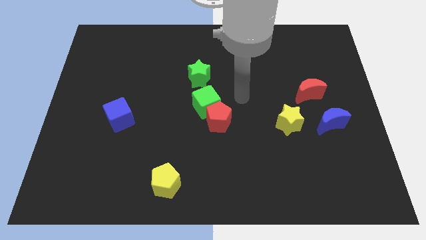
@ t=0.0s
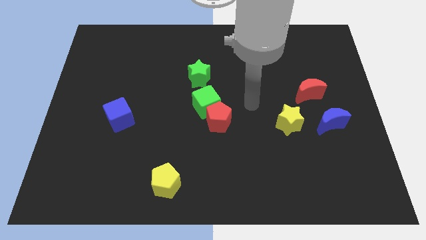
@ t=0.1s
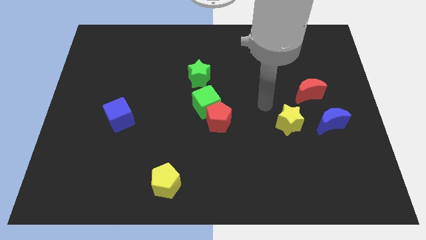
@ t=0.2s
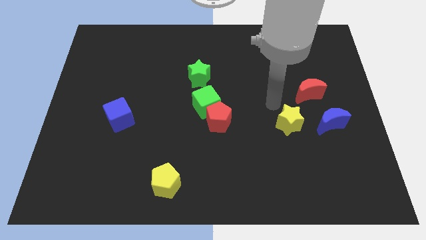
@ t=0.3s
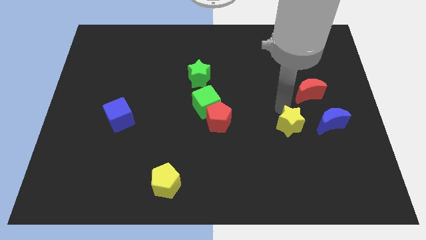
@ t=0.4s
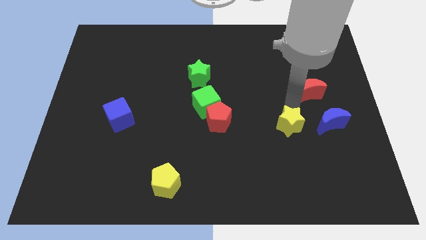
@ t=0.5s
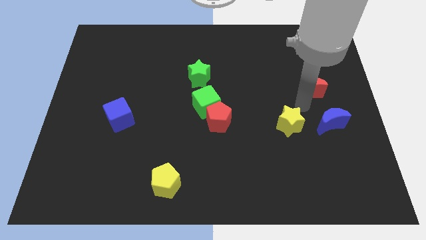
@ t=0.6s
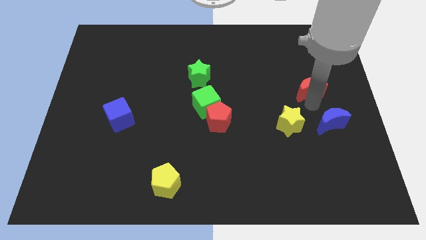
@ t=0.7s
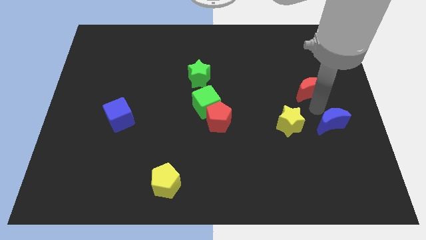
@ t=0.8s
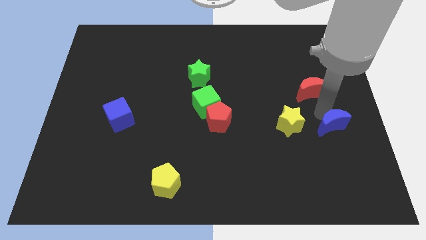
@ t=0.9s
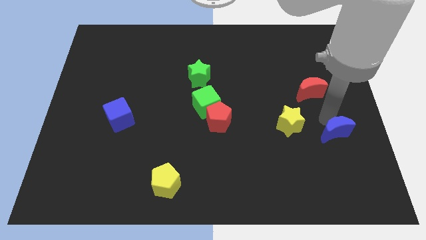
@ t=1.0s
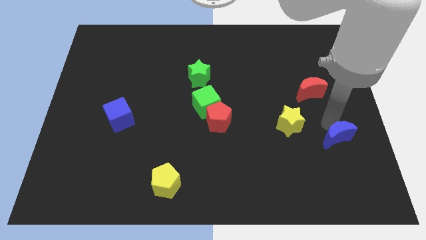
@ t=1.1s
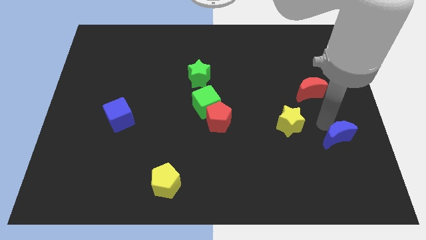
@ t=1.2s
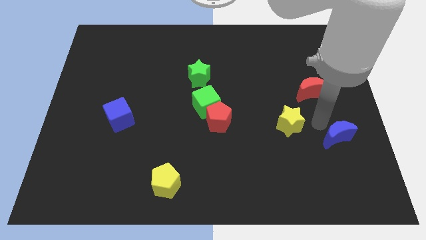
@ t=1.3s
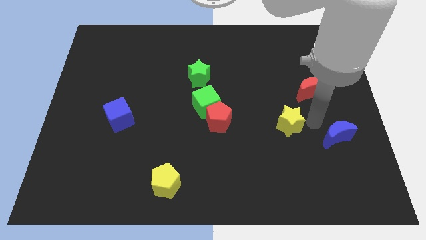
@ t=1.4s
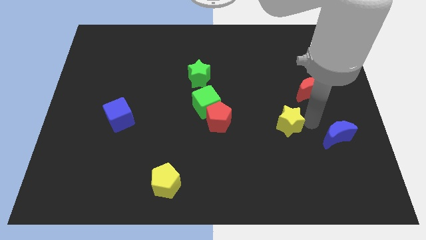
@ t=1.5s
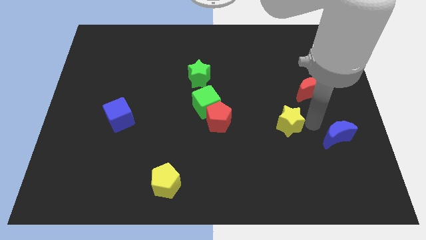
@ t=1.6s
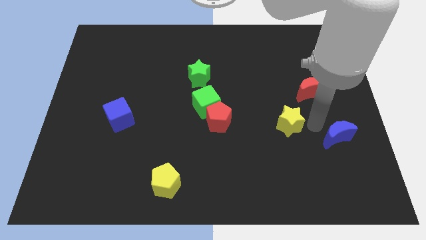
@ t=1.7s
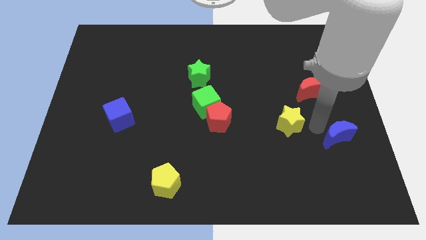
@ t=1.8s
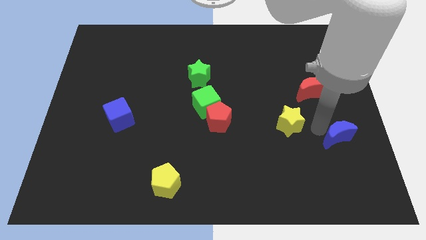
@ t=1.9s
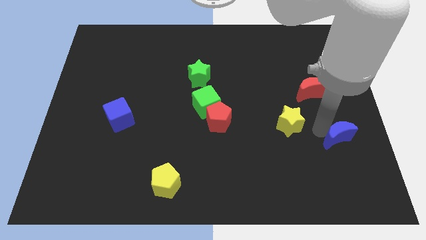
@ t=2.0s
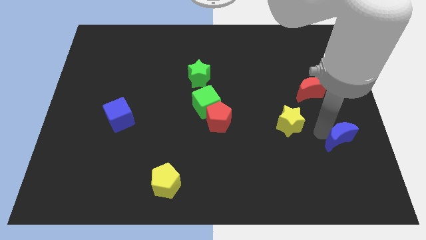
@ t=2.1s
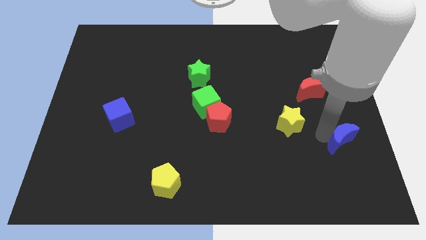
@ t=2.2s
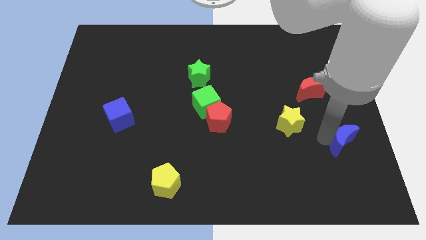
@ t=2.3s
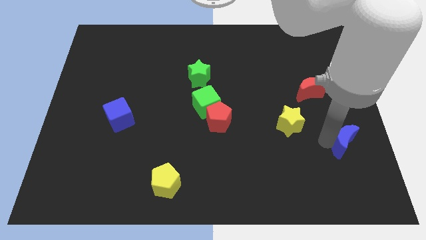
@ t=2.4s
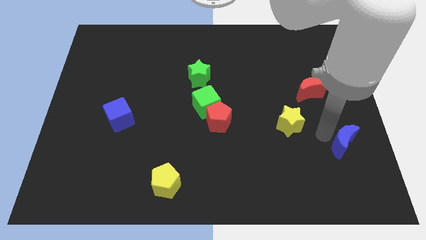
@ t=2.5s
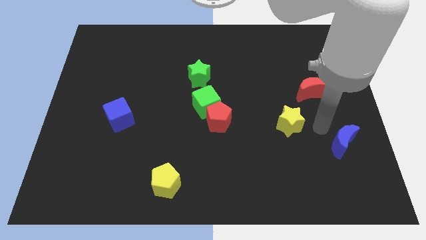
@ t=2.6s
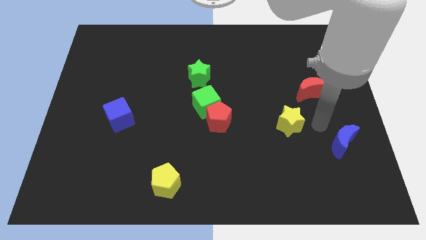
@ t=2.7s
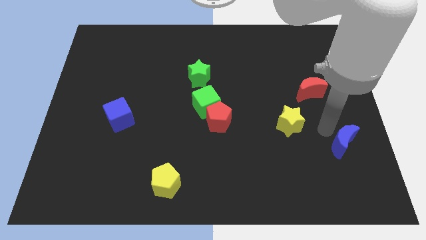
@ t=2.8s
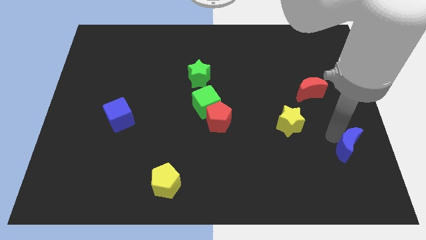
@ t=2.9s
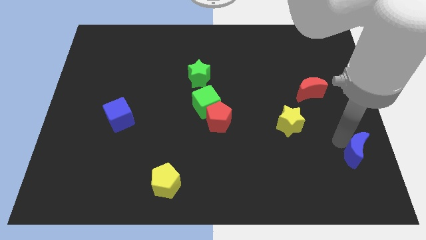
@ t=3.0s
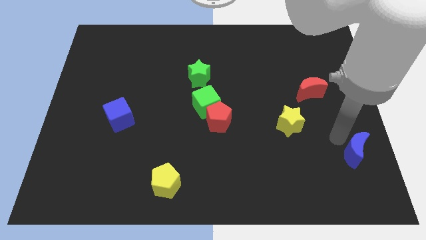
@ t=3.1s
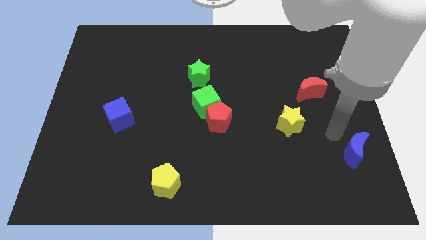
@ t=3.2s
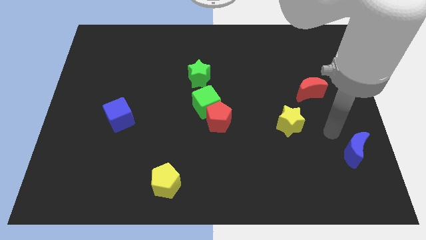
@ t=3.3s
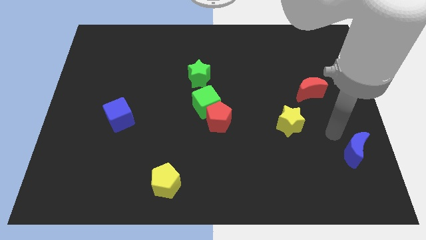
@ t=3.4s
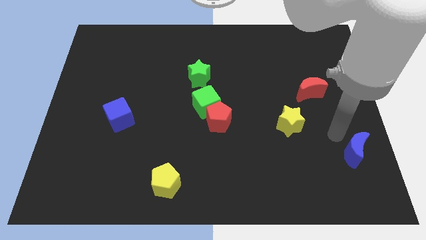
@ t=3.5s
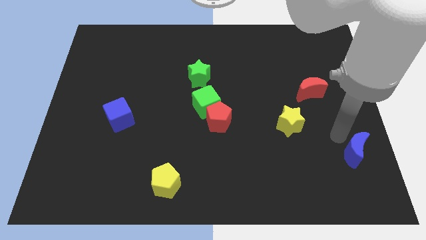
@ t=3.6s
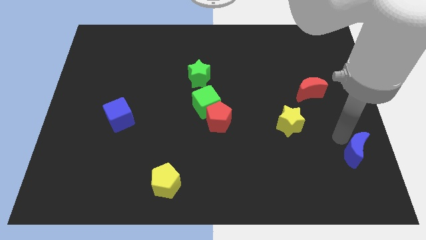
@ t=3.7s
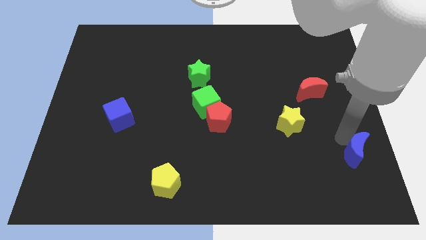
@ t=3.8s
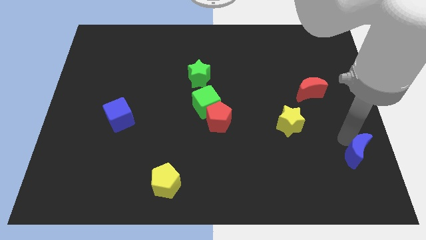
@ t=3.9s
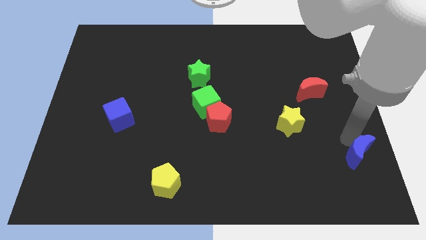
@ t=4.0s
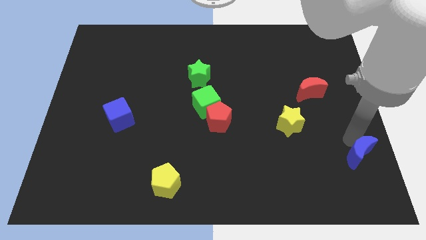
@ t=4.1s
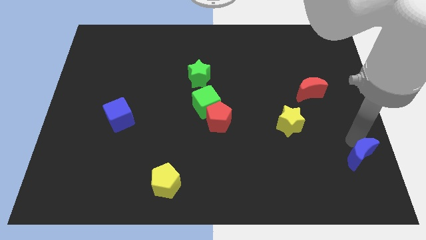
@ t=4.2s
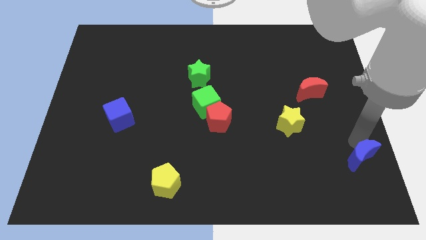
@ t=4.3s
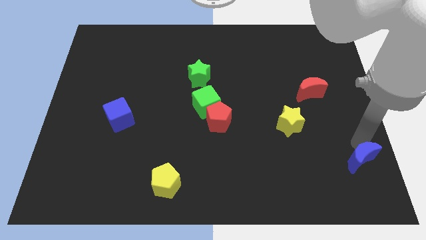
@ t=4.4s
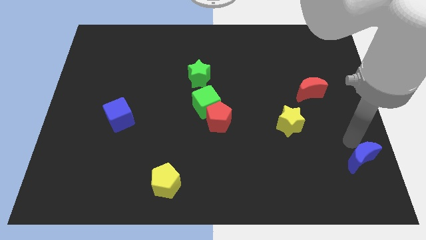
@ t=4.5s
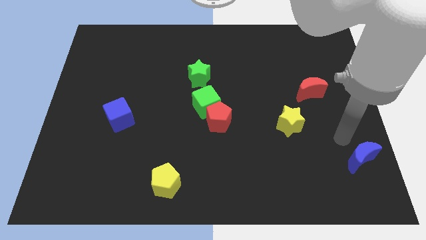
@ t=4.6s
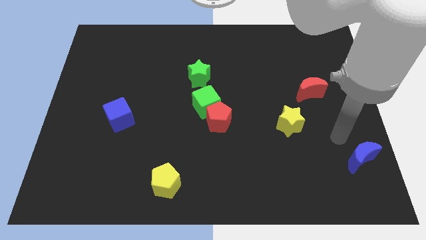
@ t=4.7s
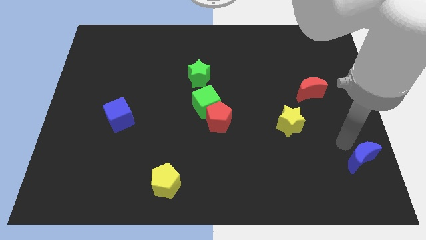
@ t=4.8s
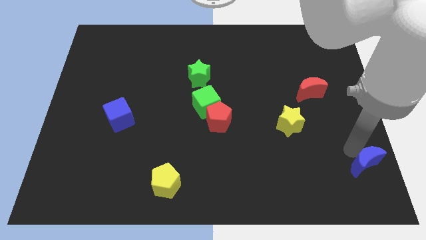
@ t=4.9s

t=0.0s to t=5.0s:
push the blue moon to the bottom right corner

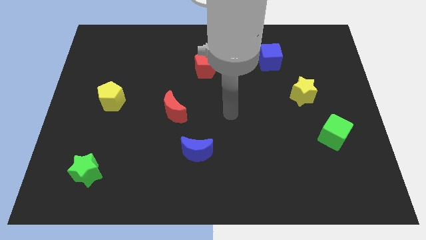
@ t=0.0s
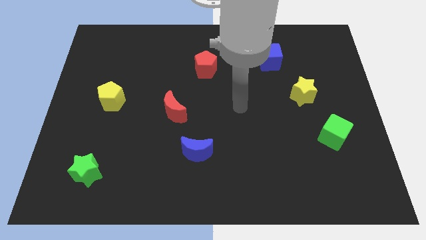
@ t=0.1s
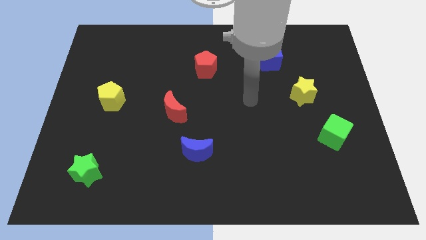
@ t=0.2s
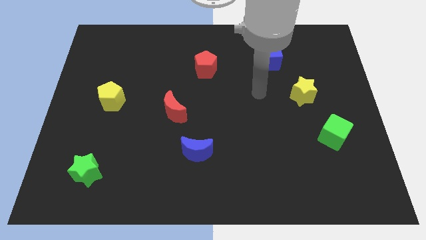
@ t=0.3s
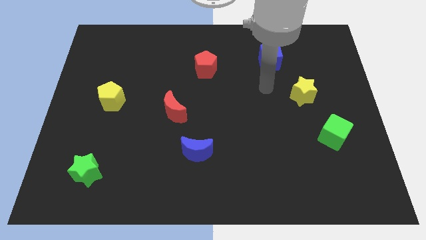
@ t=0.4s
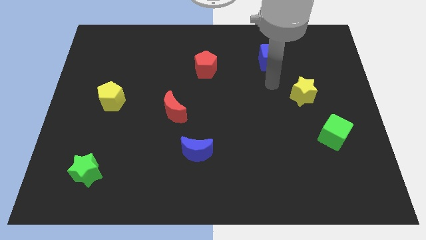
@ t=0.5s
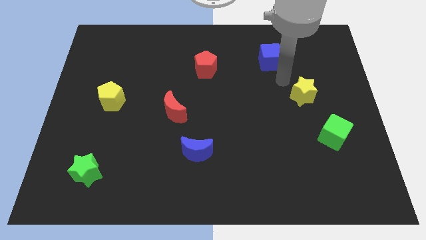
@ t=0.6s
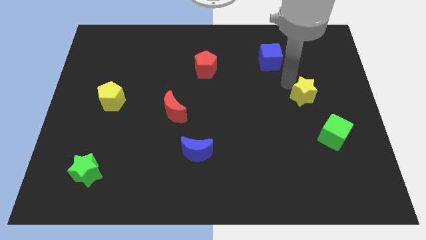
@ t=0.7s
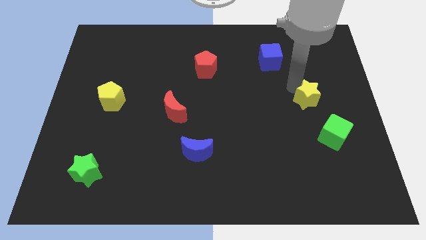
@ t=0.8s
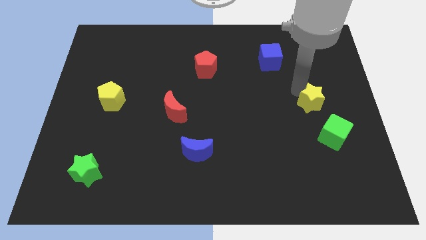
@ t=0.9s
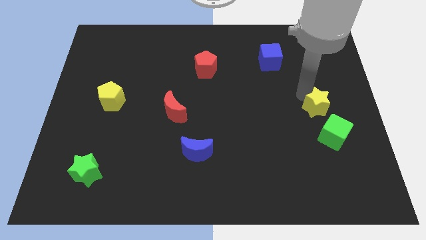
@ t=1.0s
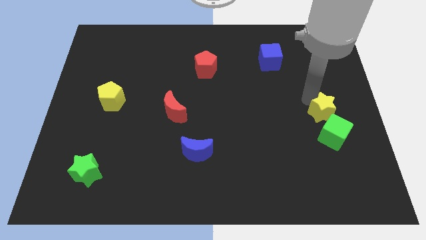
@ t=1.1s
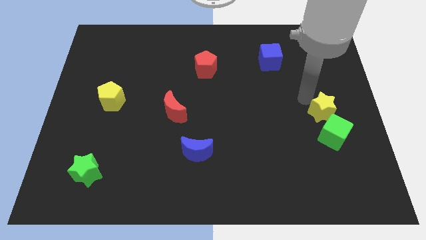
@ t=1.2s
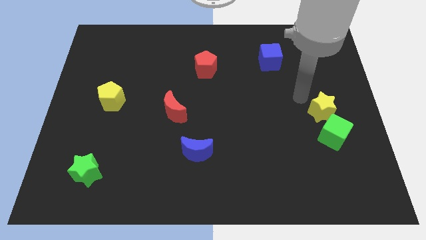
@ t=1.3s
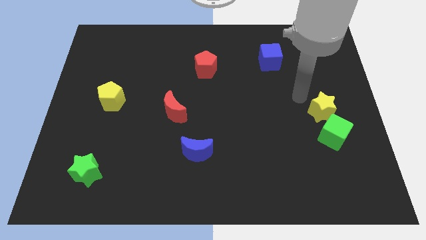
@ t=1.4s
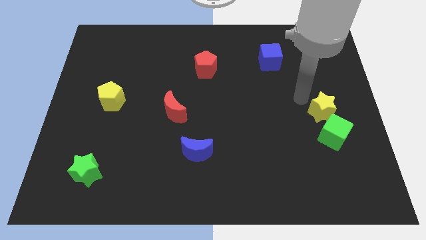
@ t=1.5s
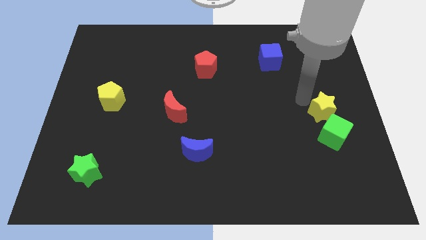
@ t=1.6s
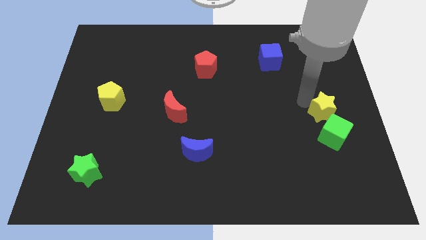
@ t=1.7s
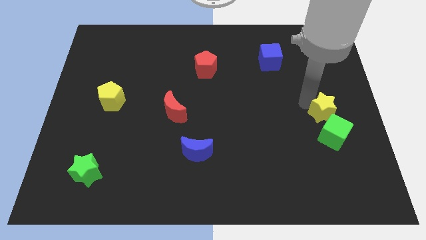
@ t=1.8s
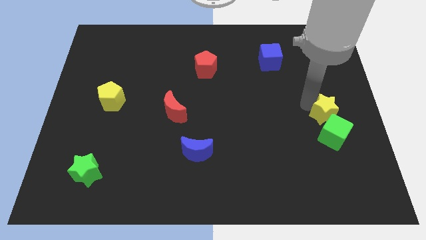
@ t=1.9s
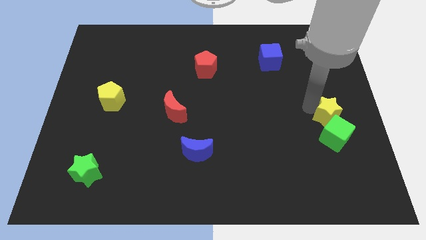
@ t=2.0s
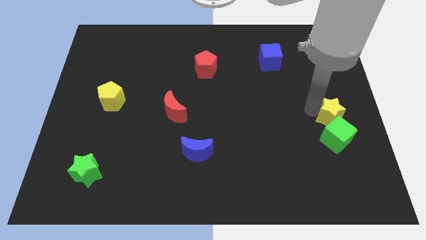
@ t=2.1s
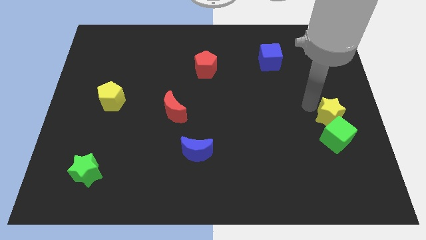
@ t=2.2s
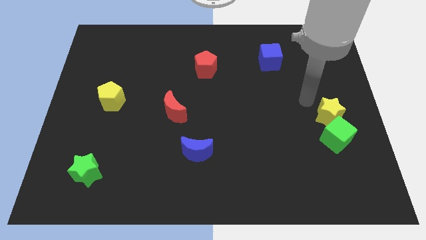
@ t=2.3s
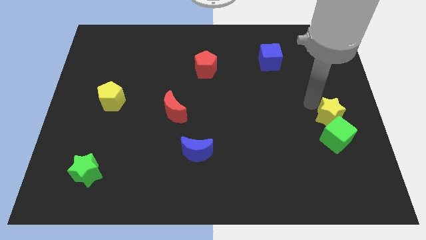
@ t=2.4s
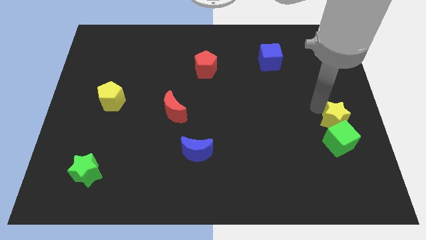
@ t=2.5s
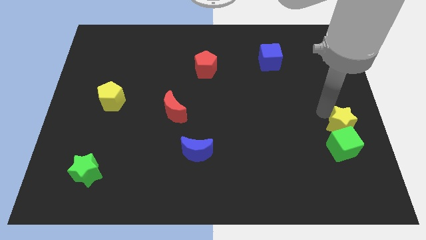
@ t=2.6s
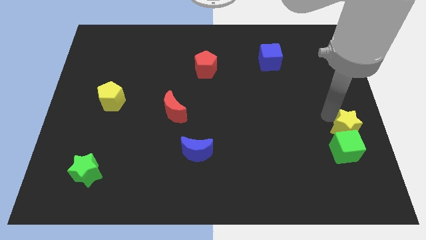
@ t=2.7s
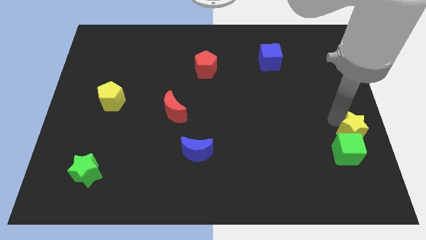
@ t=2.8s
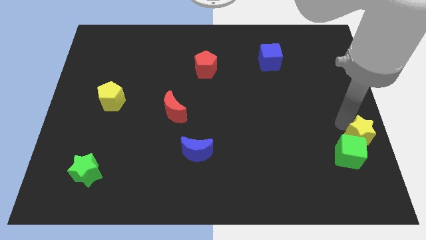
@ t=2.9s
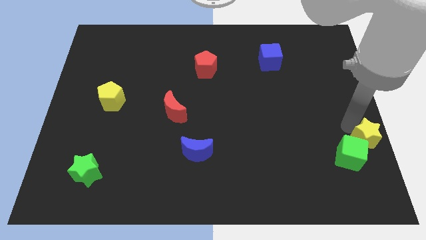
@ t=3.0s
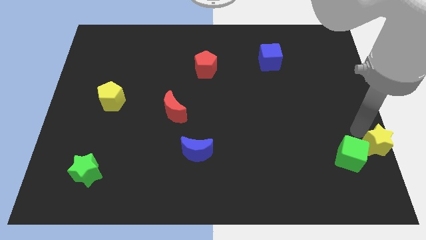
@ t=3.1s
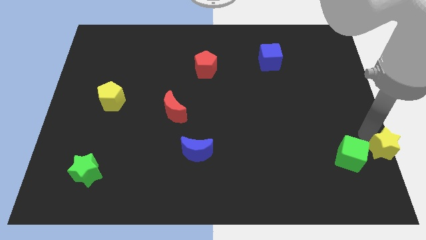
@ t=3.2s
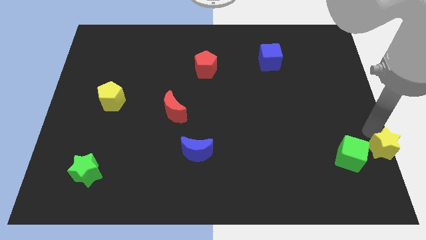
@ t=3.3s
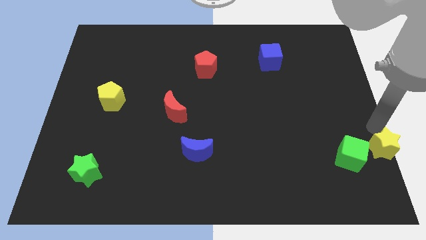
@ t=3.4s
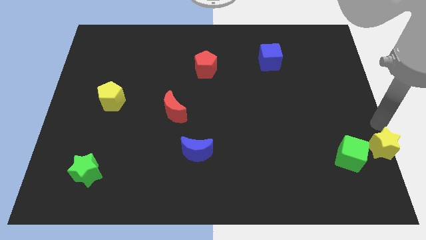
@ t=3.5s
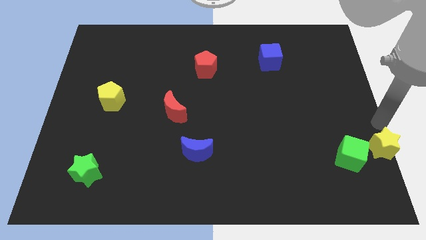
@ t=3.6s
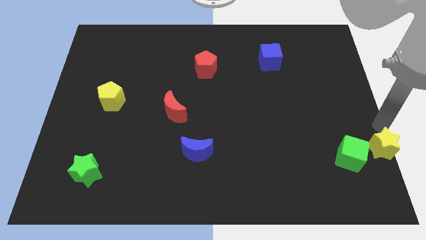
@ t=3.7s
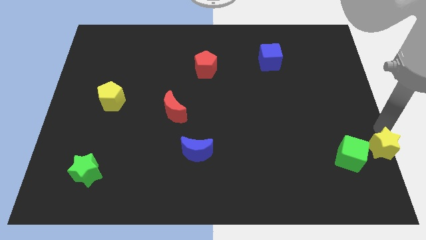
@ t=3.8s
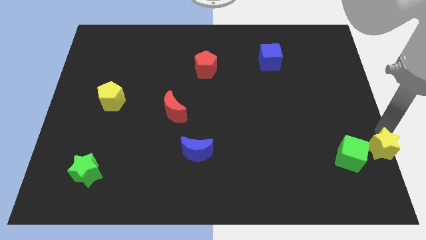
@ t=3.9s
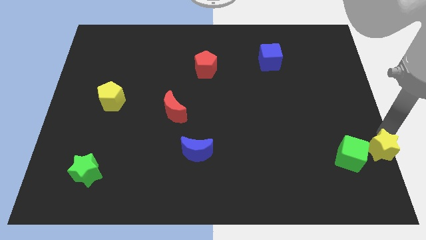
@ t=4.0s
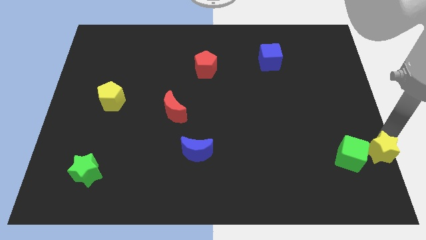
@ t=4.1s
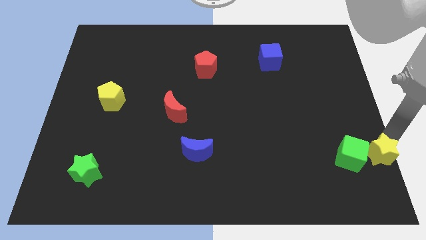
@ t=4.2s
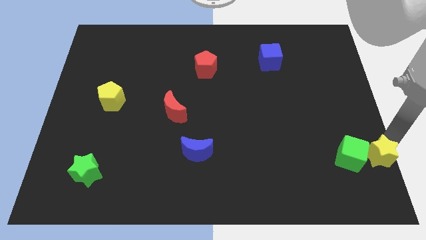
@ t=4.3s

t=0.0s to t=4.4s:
move the yellow star to the bottom right of the board
